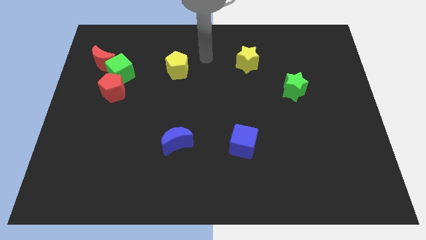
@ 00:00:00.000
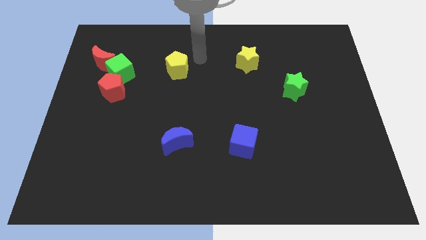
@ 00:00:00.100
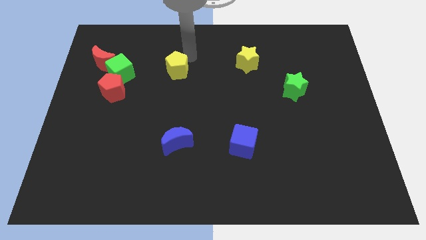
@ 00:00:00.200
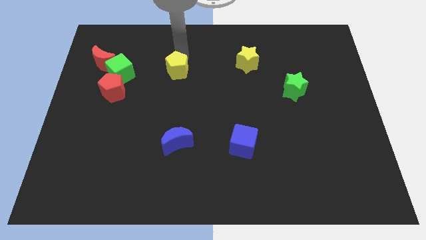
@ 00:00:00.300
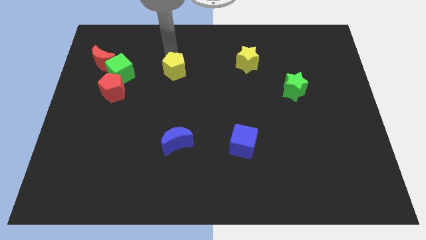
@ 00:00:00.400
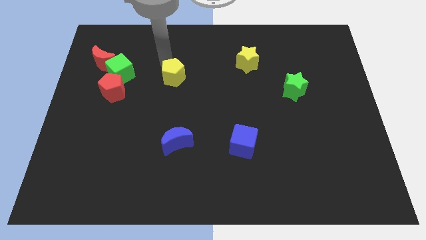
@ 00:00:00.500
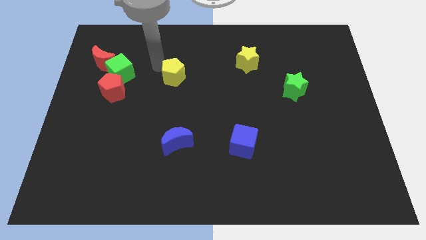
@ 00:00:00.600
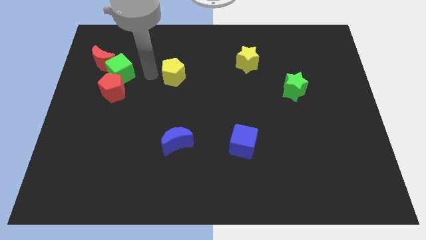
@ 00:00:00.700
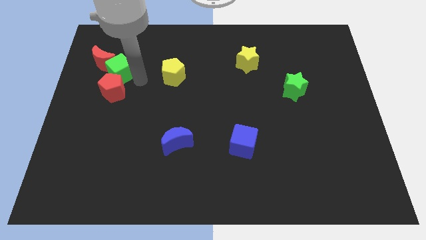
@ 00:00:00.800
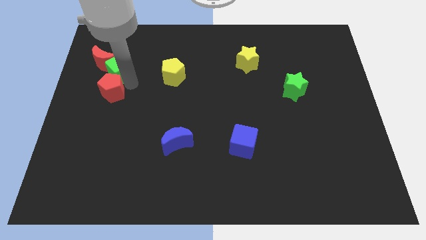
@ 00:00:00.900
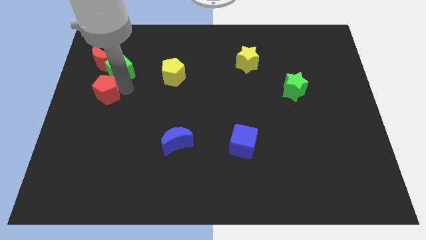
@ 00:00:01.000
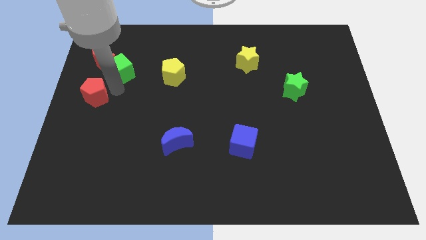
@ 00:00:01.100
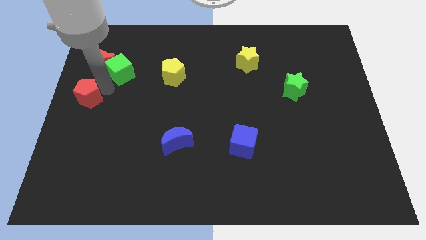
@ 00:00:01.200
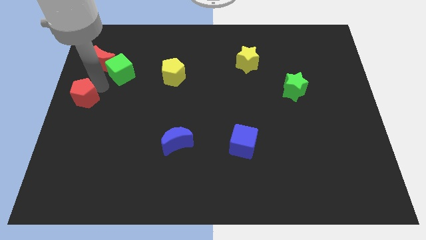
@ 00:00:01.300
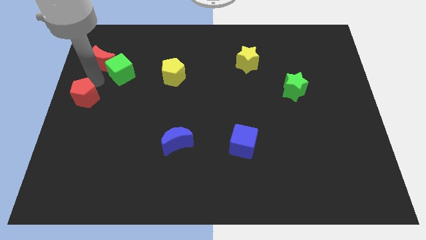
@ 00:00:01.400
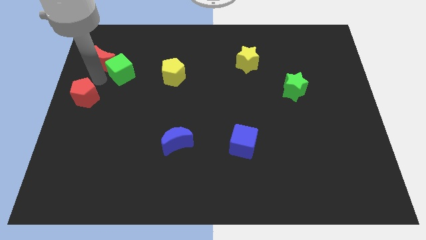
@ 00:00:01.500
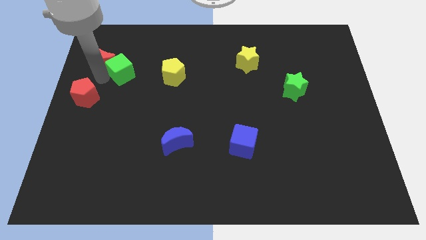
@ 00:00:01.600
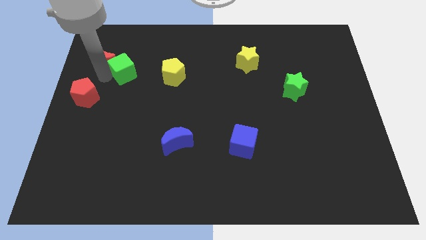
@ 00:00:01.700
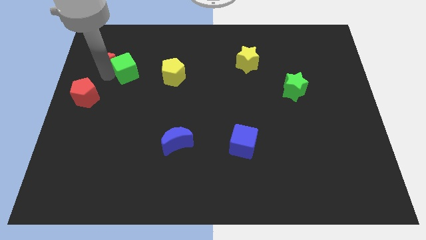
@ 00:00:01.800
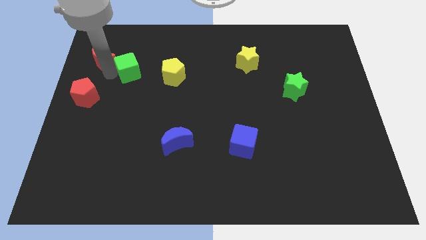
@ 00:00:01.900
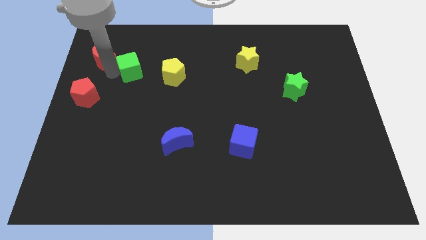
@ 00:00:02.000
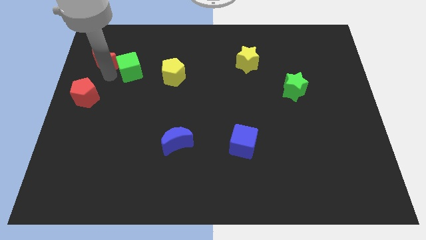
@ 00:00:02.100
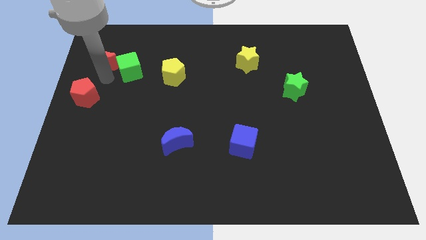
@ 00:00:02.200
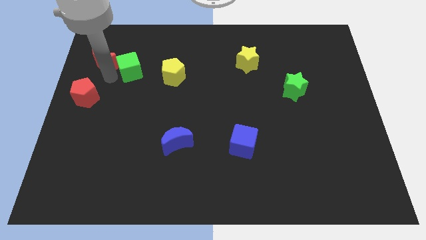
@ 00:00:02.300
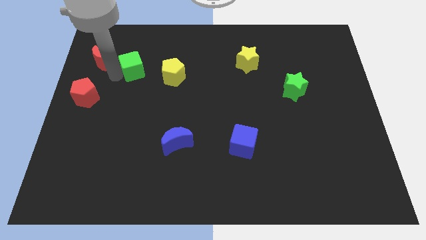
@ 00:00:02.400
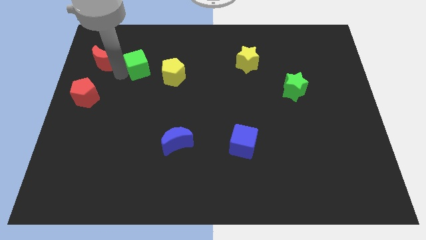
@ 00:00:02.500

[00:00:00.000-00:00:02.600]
move the green cube away from the red pentagon and red moon

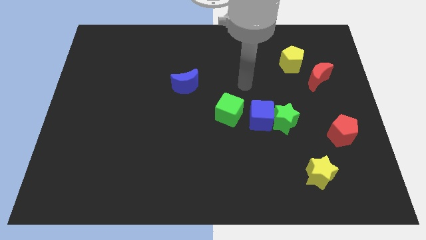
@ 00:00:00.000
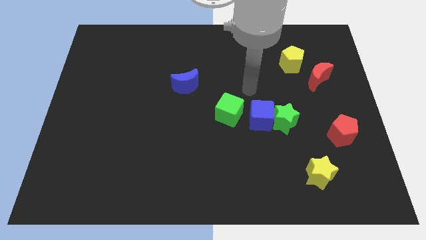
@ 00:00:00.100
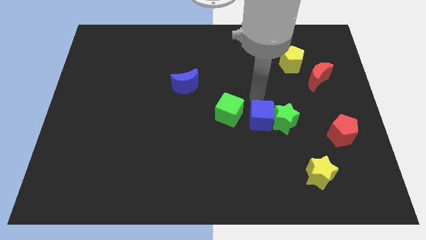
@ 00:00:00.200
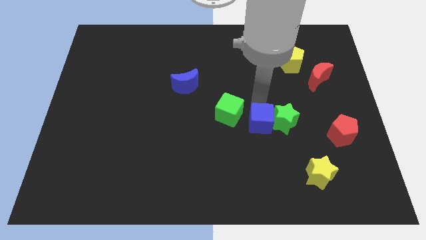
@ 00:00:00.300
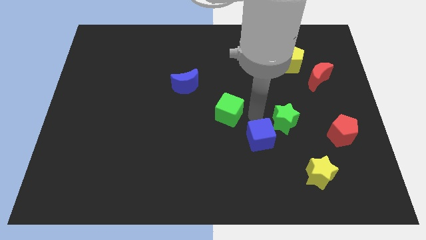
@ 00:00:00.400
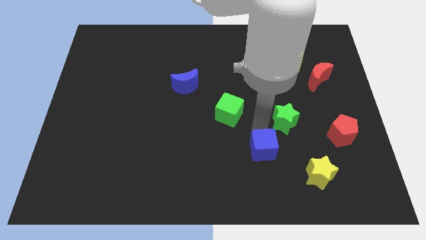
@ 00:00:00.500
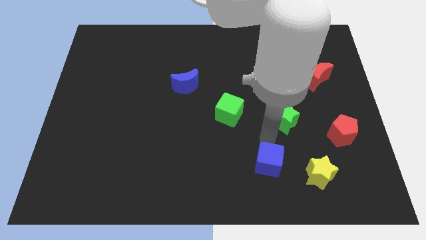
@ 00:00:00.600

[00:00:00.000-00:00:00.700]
pull the green star apart from the blue cube

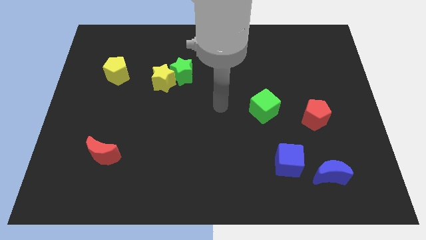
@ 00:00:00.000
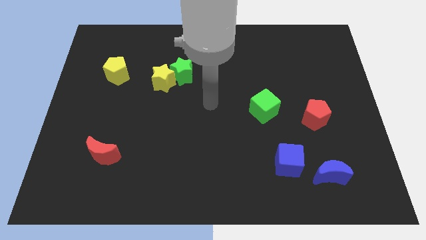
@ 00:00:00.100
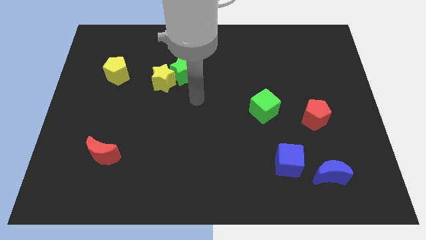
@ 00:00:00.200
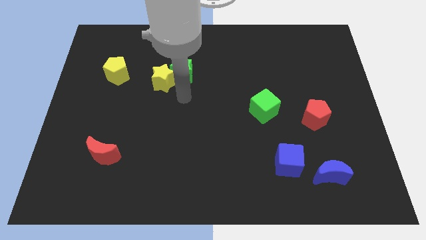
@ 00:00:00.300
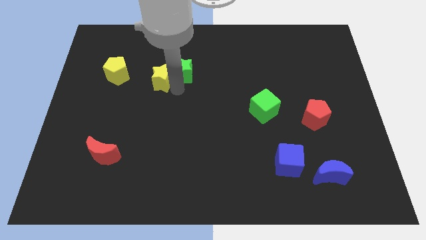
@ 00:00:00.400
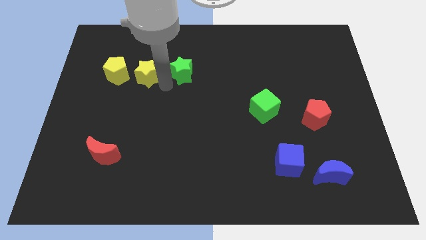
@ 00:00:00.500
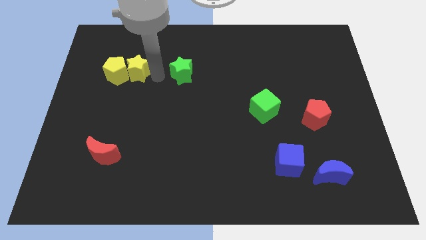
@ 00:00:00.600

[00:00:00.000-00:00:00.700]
move the green star away from the yellow star

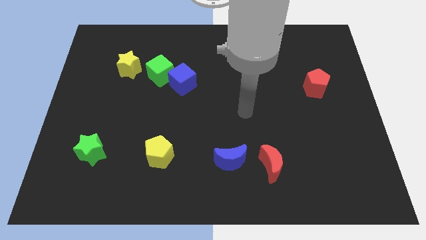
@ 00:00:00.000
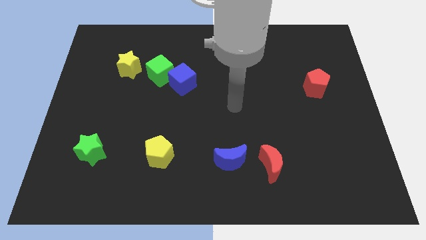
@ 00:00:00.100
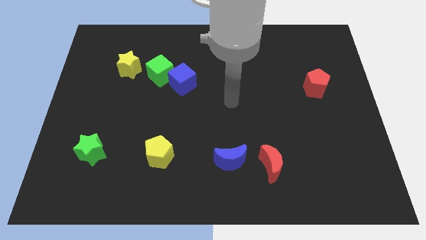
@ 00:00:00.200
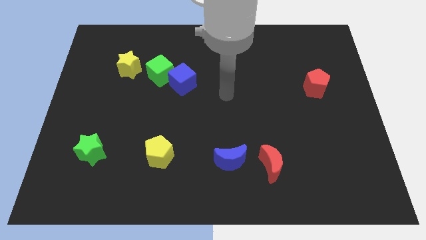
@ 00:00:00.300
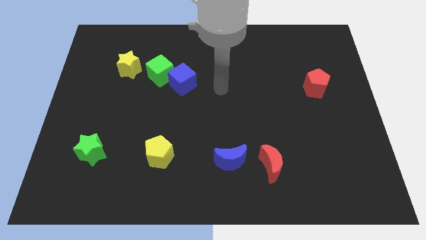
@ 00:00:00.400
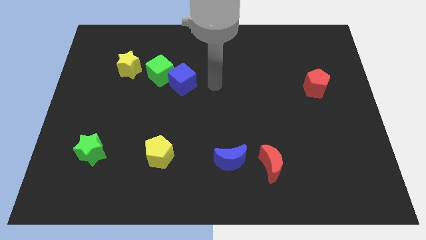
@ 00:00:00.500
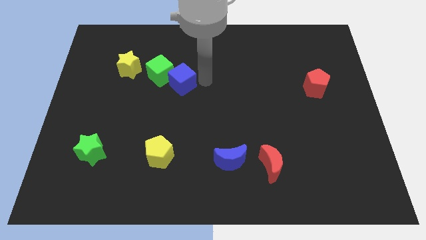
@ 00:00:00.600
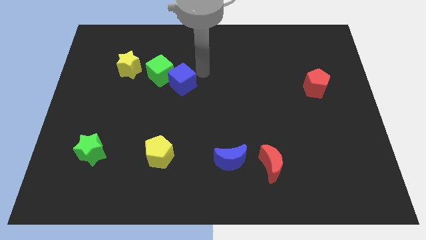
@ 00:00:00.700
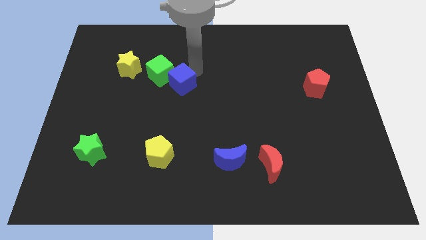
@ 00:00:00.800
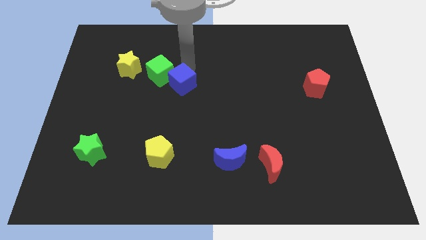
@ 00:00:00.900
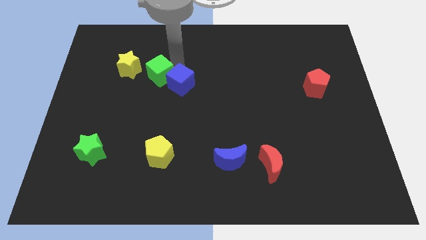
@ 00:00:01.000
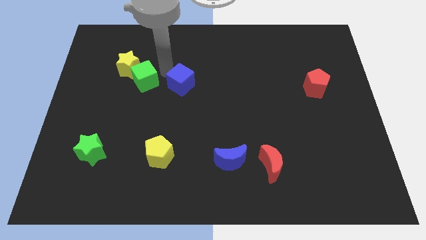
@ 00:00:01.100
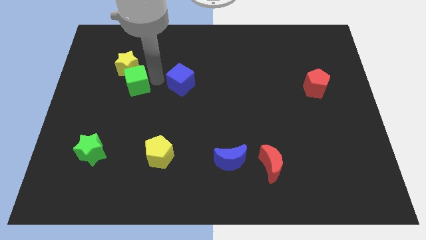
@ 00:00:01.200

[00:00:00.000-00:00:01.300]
pull the blue cube apart from the green cube

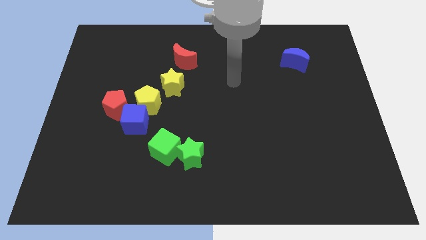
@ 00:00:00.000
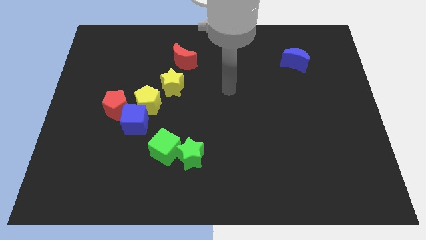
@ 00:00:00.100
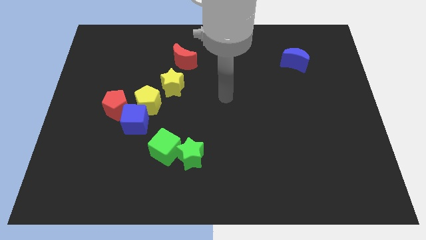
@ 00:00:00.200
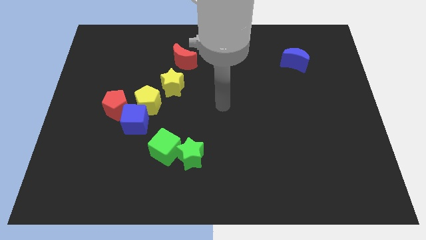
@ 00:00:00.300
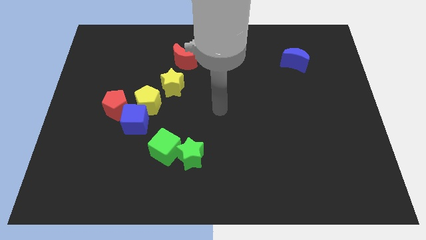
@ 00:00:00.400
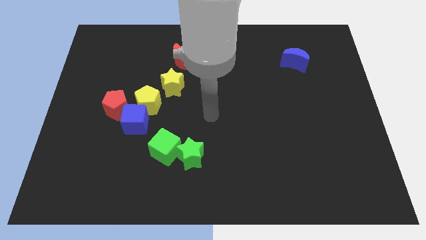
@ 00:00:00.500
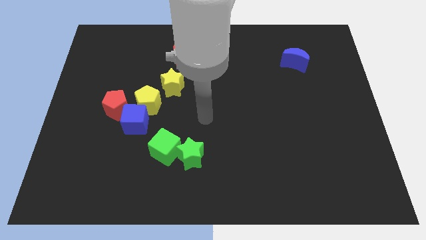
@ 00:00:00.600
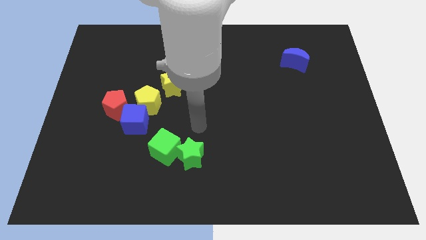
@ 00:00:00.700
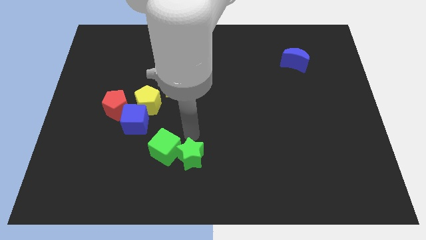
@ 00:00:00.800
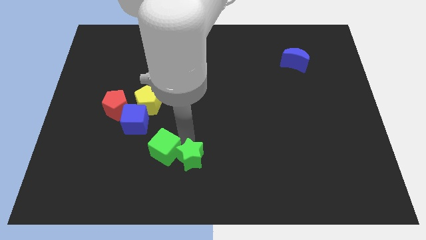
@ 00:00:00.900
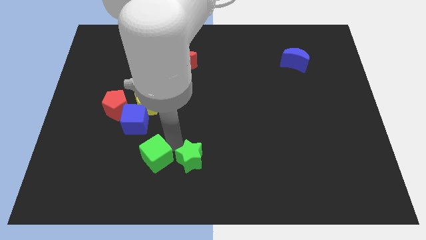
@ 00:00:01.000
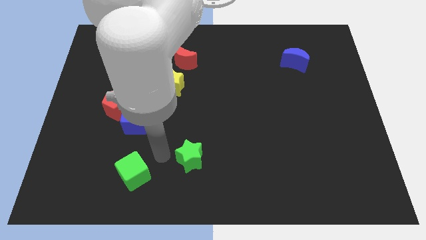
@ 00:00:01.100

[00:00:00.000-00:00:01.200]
move the green star away from the green cube

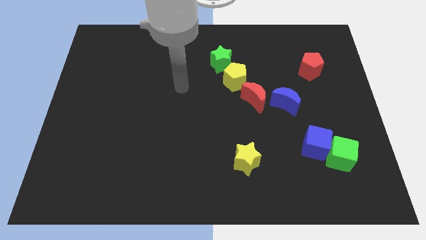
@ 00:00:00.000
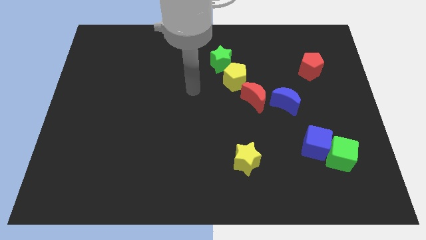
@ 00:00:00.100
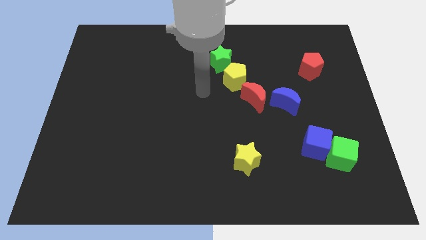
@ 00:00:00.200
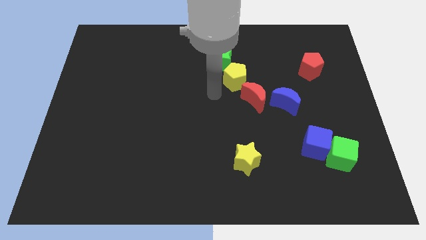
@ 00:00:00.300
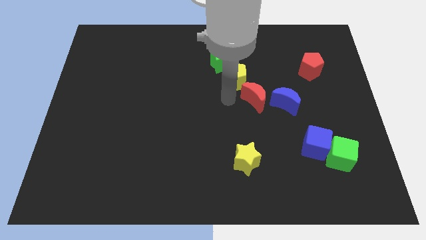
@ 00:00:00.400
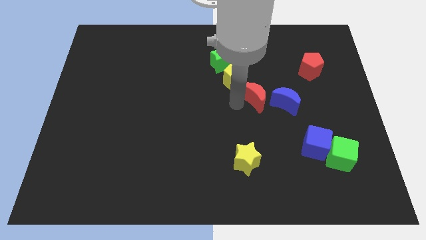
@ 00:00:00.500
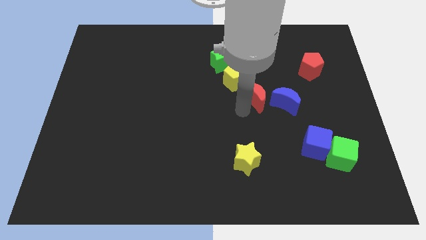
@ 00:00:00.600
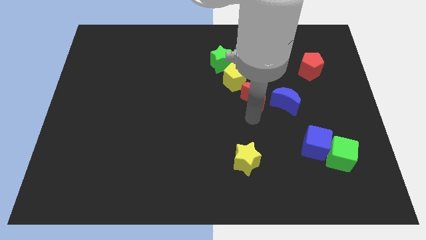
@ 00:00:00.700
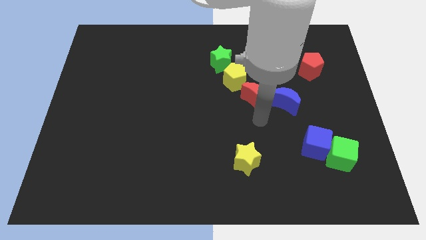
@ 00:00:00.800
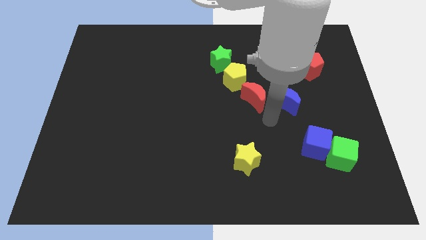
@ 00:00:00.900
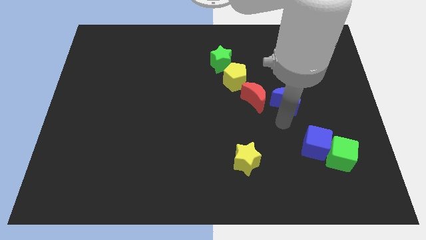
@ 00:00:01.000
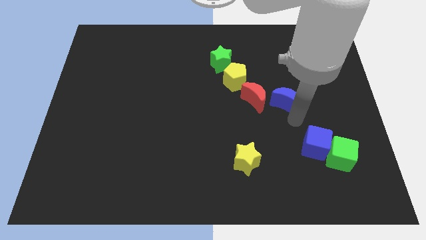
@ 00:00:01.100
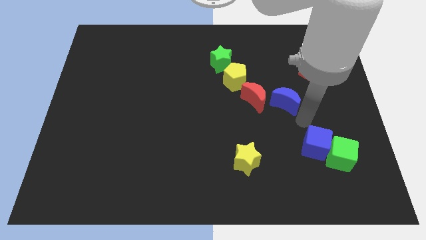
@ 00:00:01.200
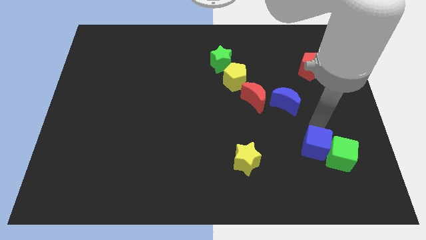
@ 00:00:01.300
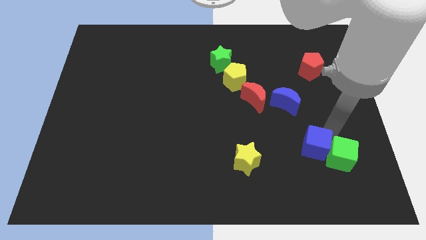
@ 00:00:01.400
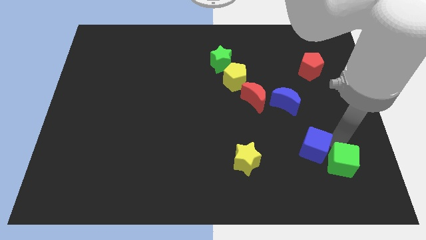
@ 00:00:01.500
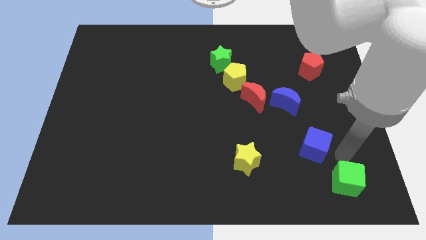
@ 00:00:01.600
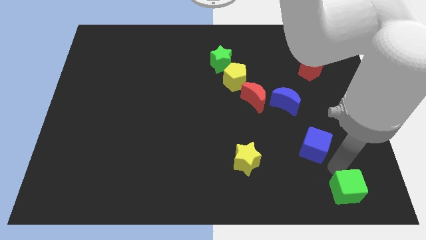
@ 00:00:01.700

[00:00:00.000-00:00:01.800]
separate the blue cube from the green cube

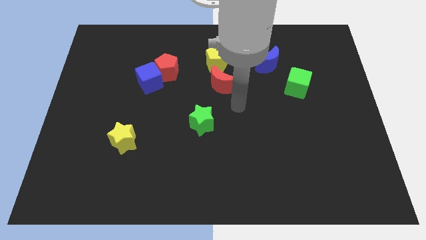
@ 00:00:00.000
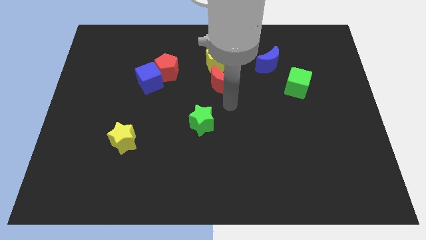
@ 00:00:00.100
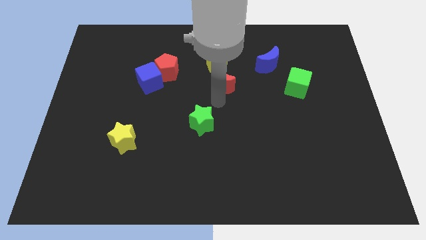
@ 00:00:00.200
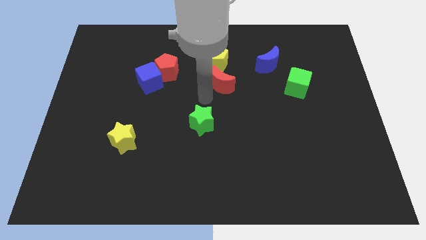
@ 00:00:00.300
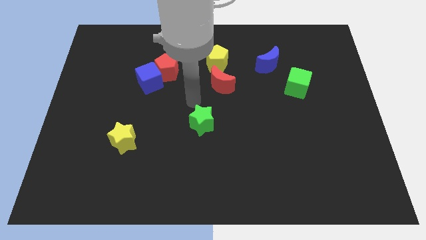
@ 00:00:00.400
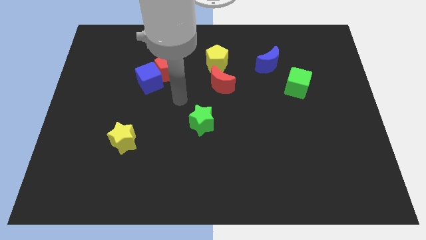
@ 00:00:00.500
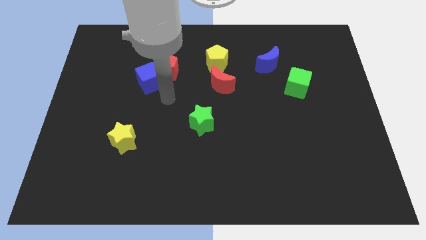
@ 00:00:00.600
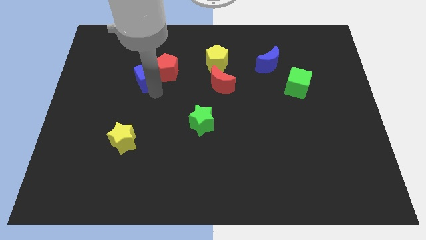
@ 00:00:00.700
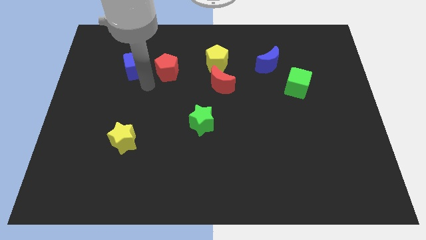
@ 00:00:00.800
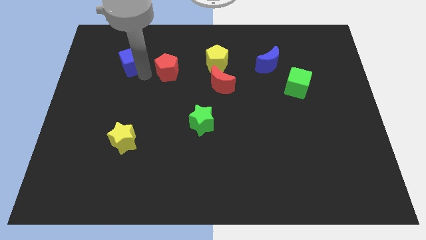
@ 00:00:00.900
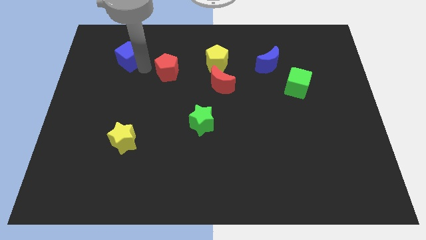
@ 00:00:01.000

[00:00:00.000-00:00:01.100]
pull the red pentagon apart from the blue cube
